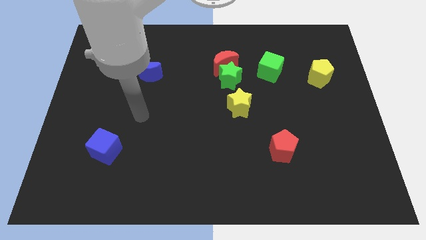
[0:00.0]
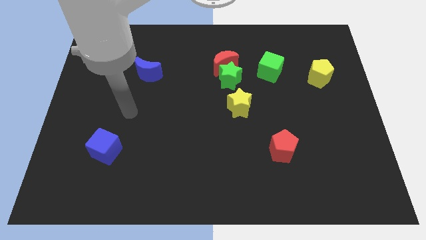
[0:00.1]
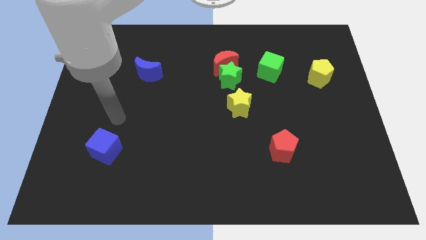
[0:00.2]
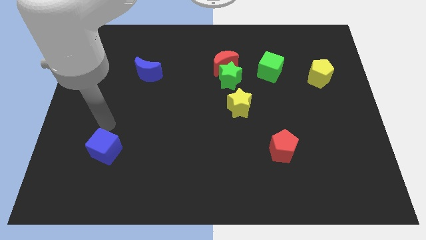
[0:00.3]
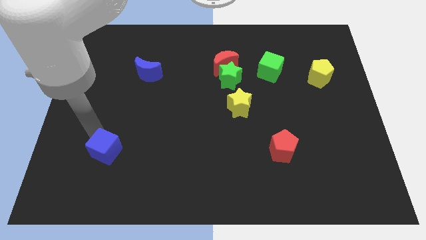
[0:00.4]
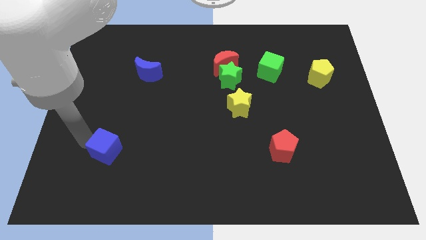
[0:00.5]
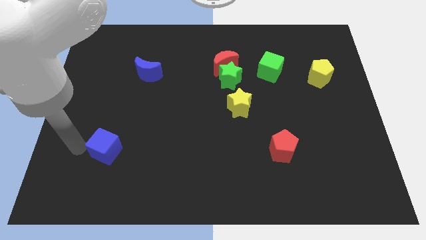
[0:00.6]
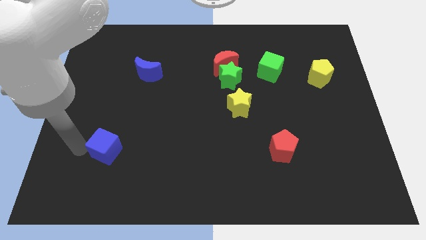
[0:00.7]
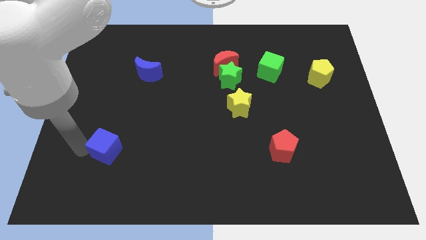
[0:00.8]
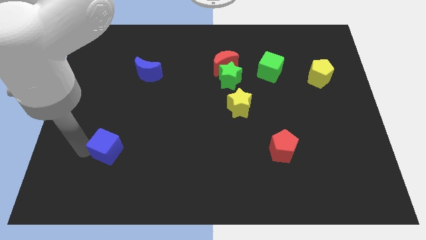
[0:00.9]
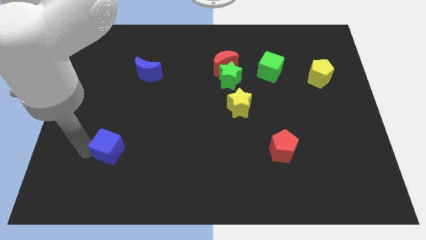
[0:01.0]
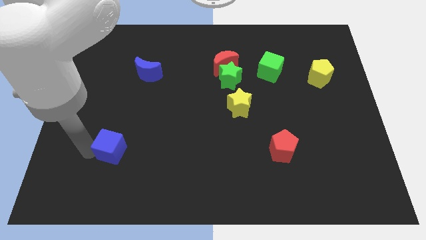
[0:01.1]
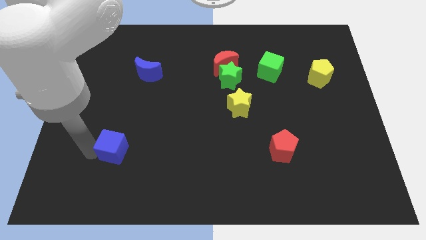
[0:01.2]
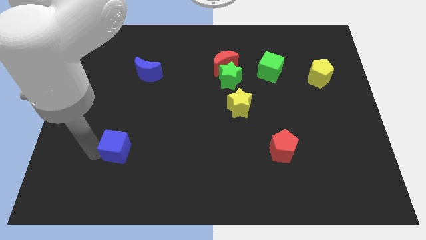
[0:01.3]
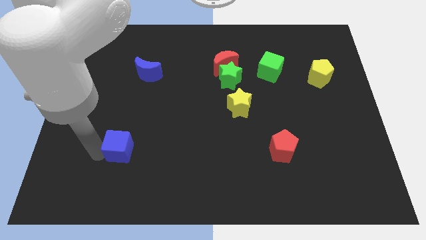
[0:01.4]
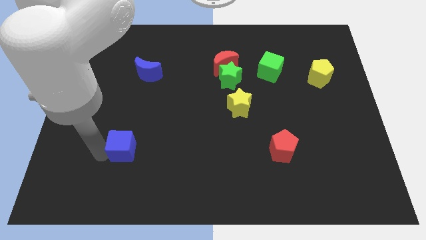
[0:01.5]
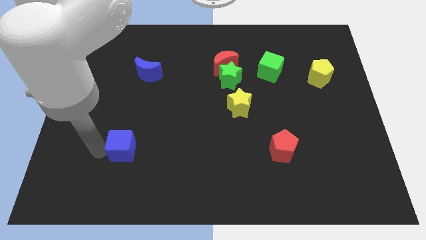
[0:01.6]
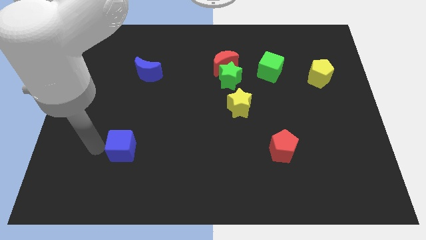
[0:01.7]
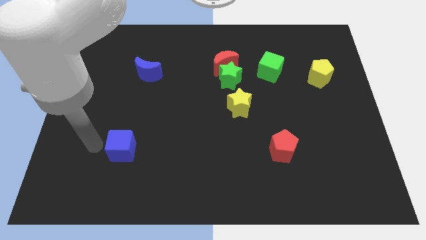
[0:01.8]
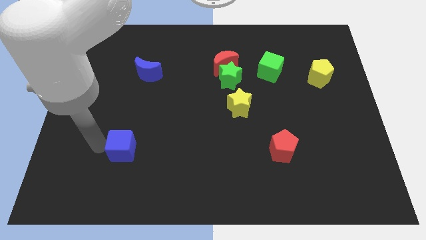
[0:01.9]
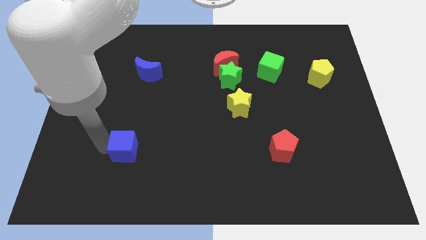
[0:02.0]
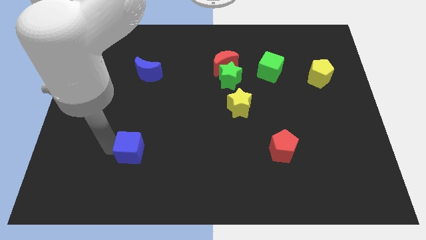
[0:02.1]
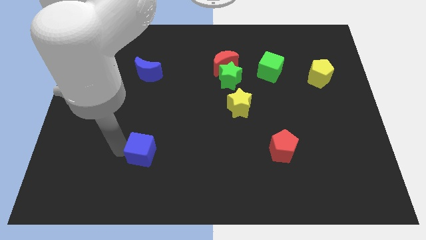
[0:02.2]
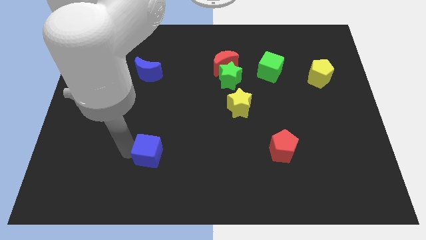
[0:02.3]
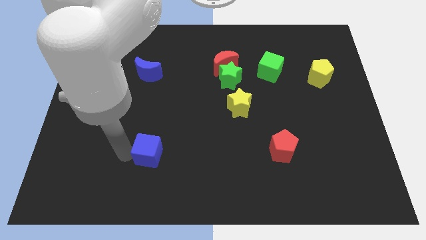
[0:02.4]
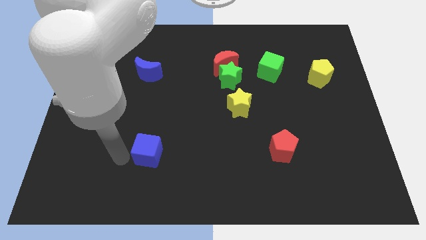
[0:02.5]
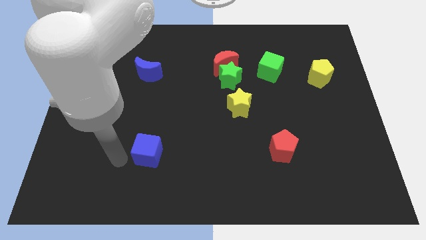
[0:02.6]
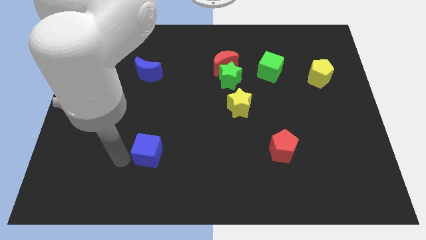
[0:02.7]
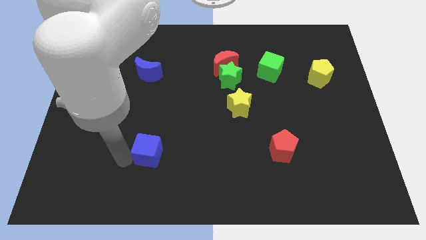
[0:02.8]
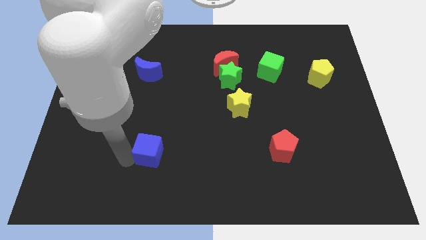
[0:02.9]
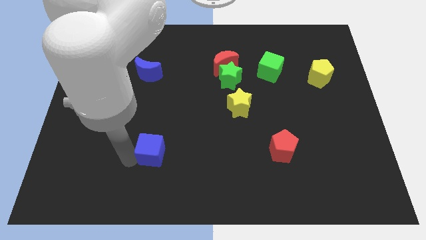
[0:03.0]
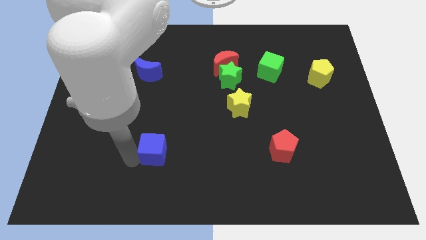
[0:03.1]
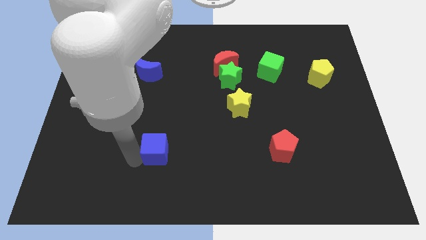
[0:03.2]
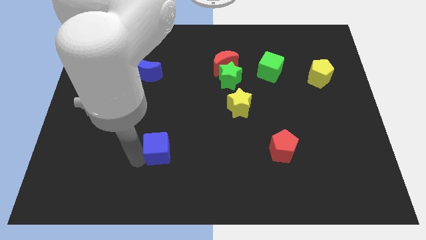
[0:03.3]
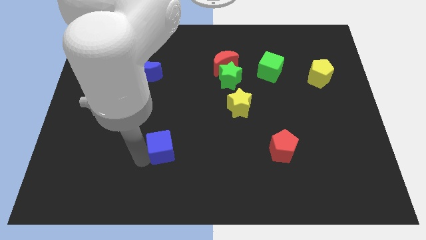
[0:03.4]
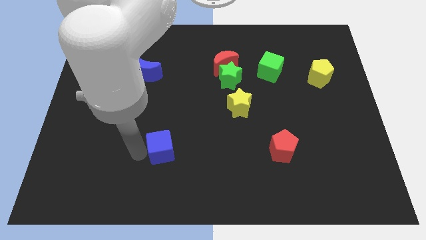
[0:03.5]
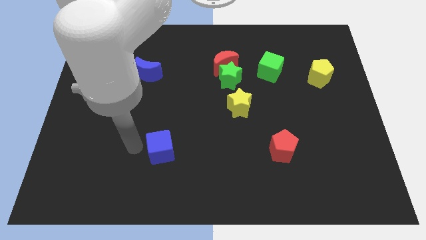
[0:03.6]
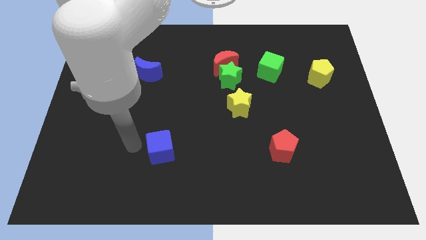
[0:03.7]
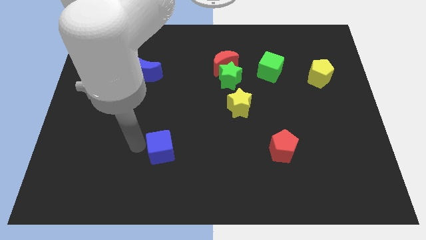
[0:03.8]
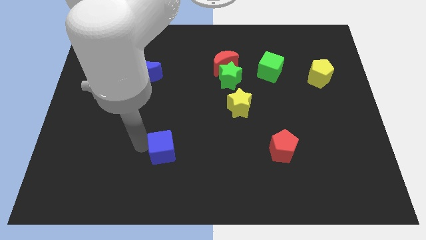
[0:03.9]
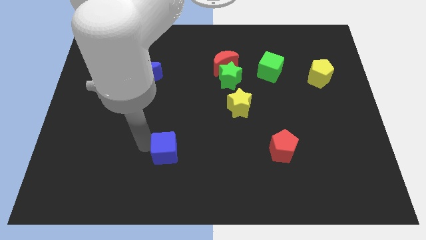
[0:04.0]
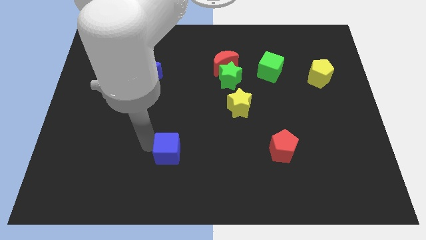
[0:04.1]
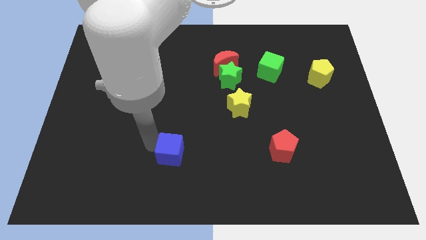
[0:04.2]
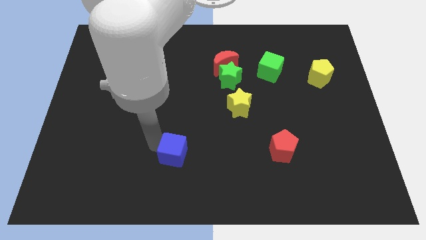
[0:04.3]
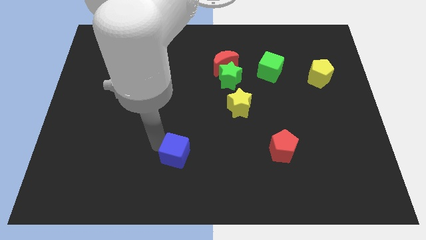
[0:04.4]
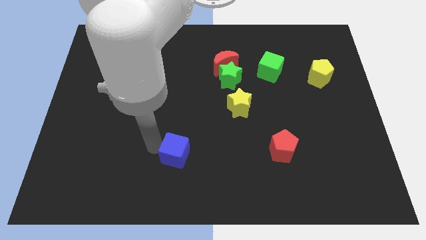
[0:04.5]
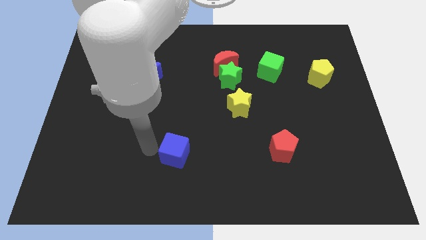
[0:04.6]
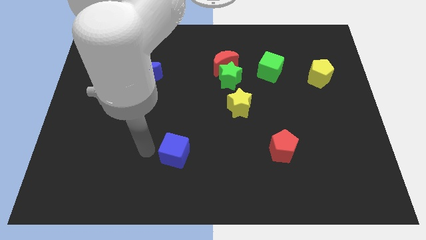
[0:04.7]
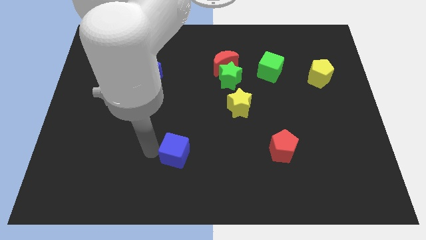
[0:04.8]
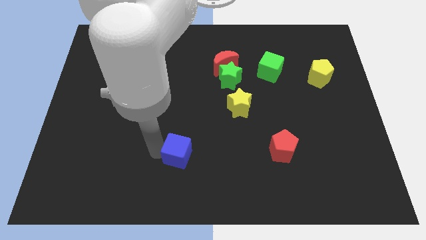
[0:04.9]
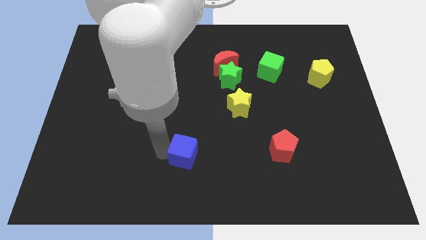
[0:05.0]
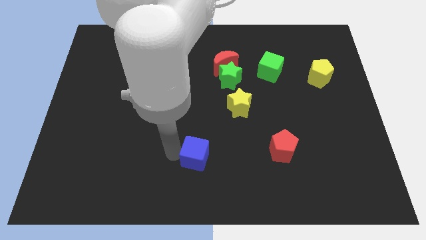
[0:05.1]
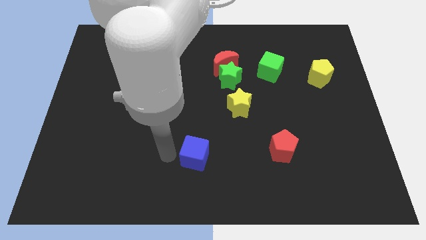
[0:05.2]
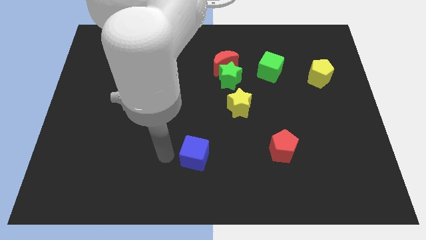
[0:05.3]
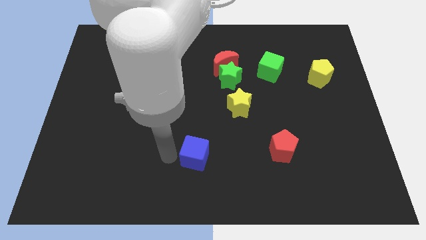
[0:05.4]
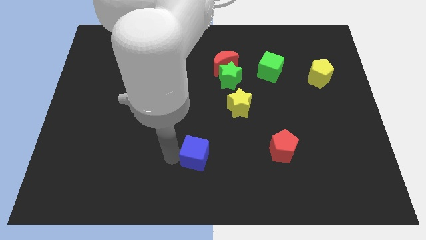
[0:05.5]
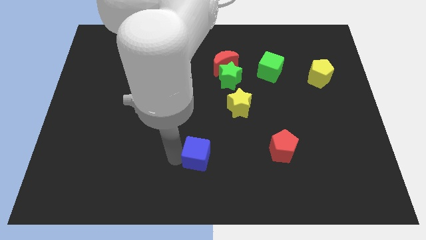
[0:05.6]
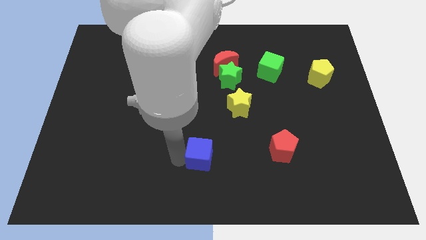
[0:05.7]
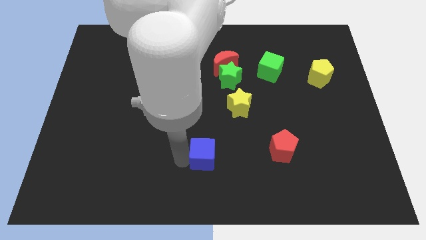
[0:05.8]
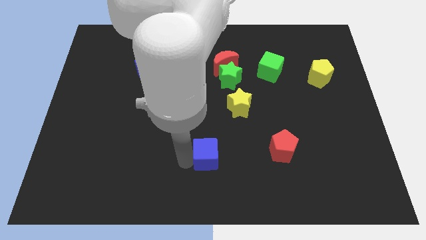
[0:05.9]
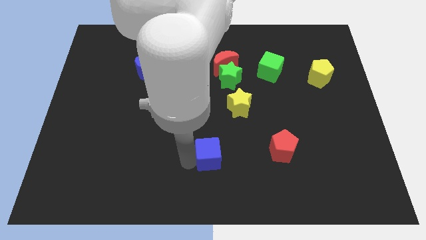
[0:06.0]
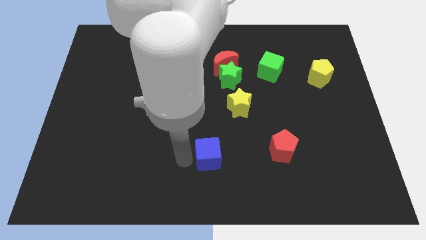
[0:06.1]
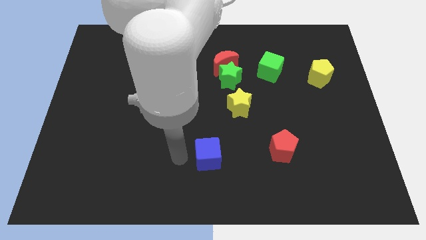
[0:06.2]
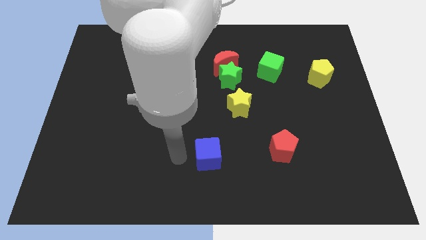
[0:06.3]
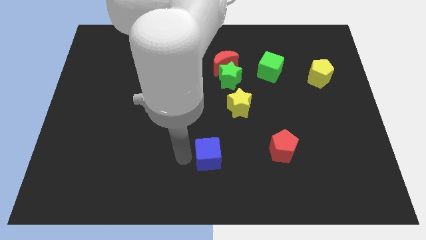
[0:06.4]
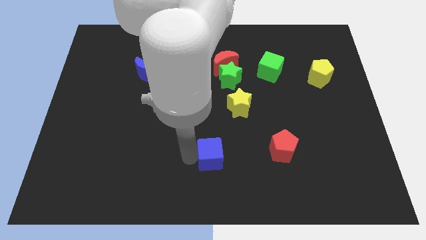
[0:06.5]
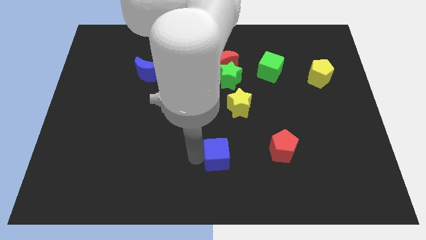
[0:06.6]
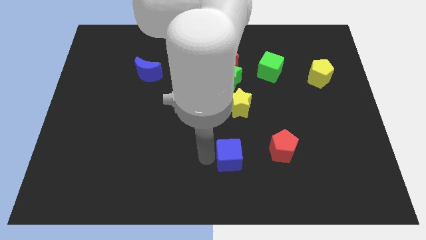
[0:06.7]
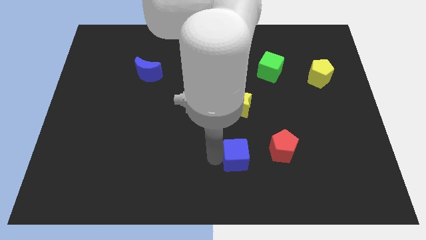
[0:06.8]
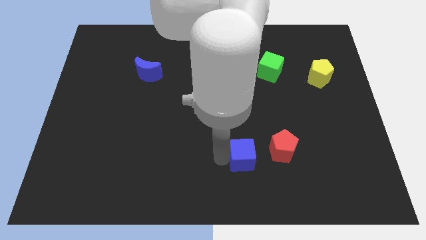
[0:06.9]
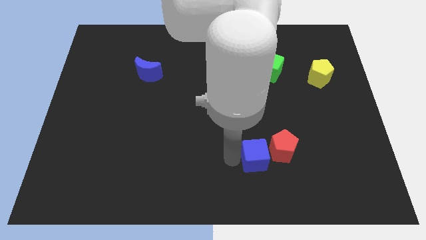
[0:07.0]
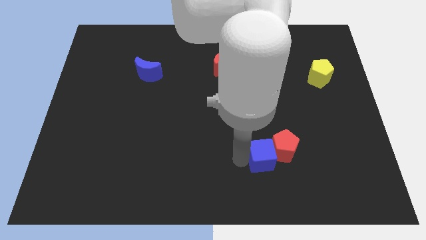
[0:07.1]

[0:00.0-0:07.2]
move the blue cube to the red pentagon

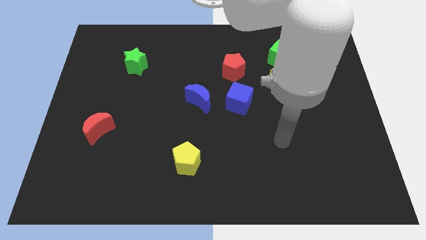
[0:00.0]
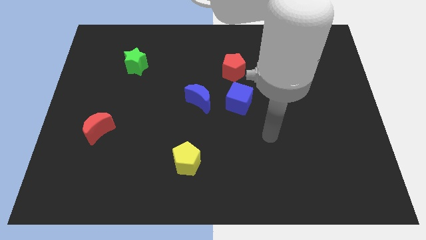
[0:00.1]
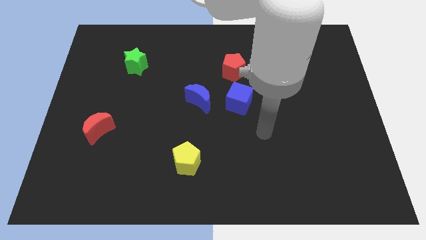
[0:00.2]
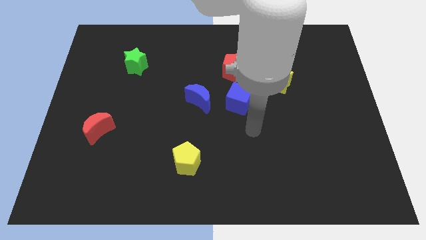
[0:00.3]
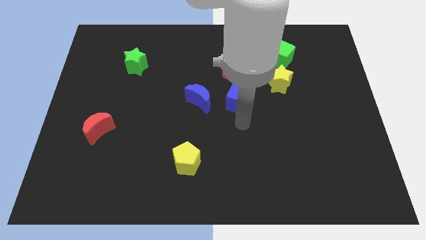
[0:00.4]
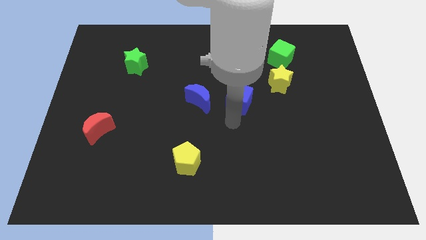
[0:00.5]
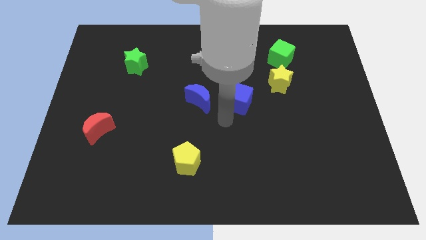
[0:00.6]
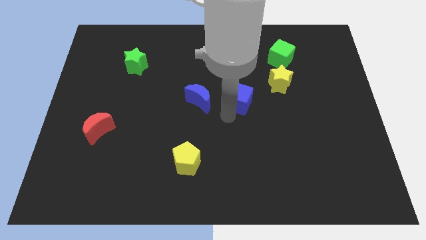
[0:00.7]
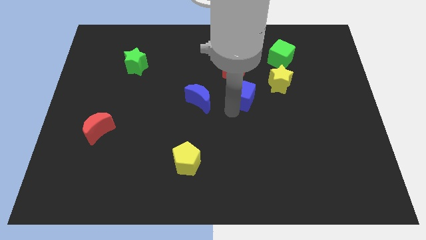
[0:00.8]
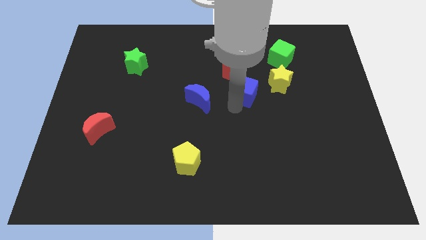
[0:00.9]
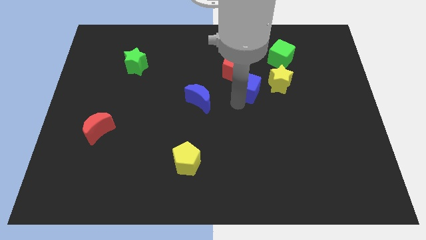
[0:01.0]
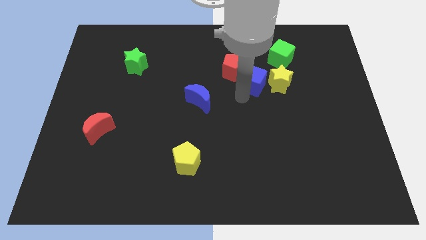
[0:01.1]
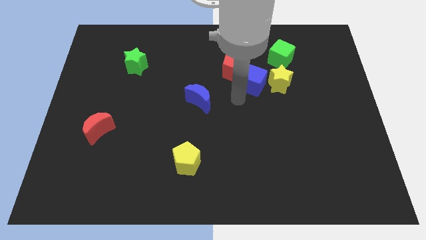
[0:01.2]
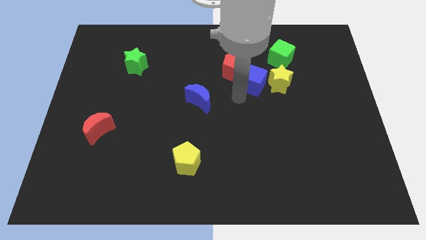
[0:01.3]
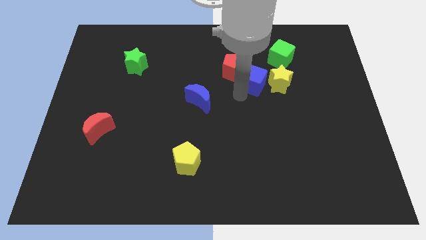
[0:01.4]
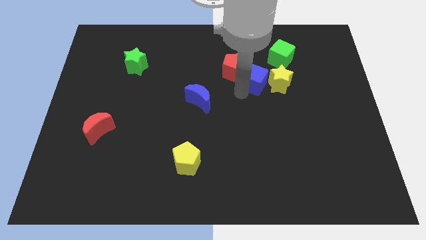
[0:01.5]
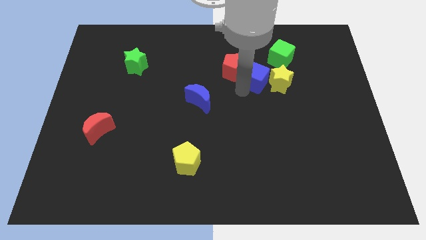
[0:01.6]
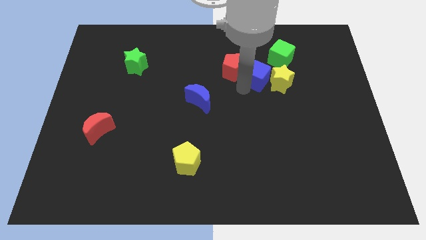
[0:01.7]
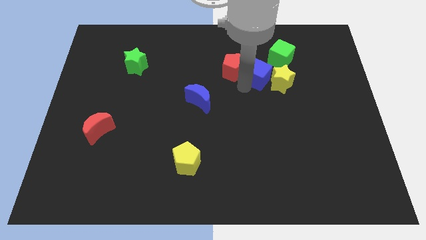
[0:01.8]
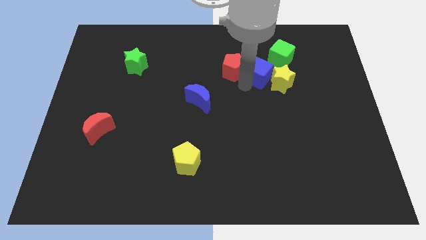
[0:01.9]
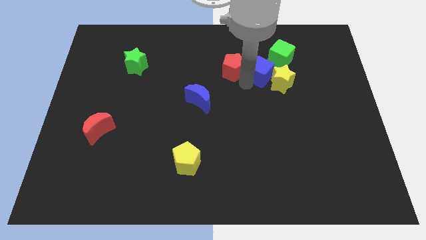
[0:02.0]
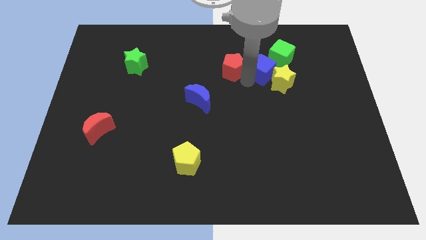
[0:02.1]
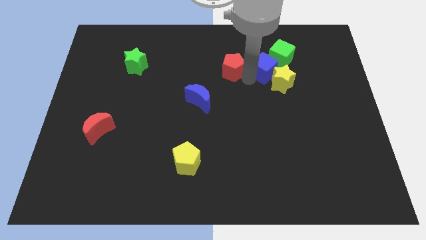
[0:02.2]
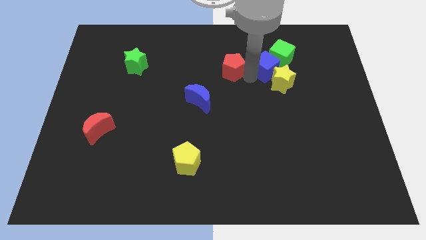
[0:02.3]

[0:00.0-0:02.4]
push the blue cube next to the green cube
